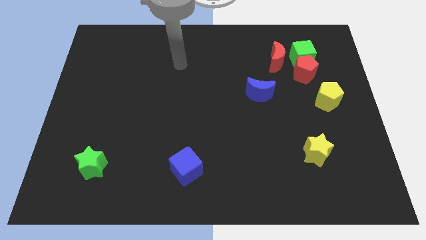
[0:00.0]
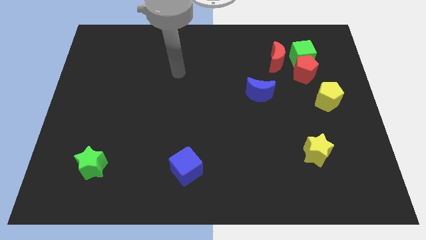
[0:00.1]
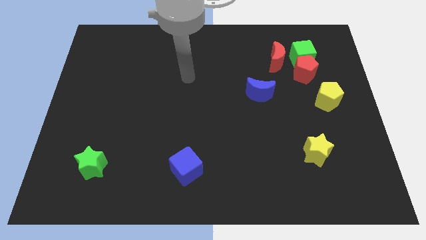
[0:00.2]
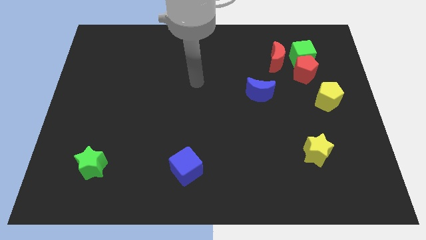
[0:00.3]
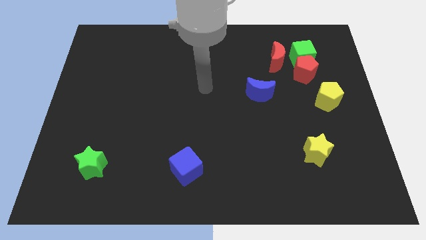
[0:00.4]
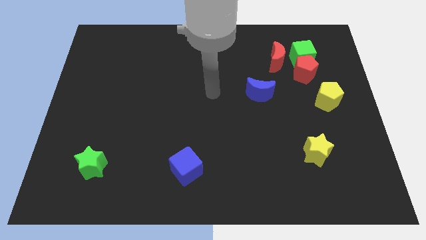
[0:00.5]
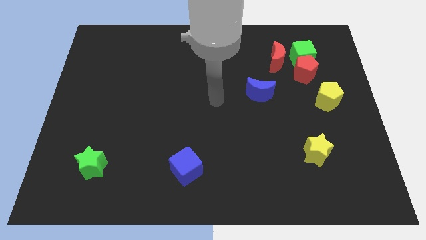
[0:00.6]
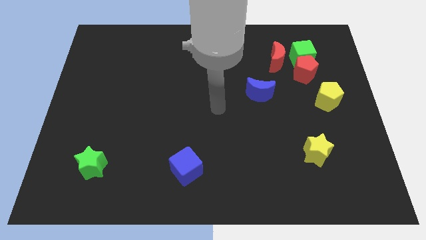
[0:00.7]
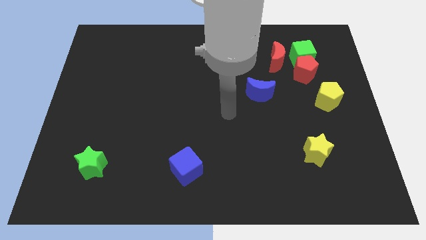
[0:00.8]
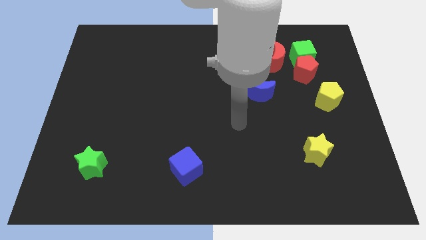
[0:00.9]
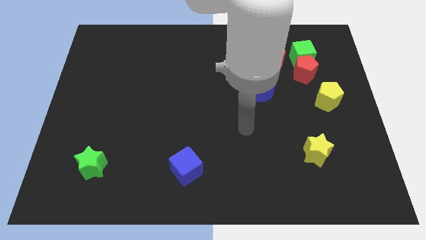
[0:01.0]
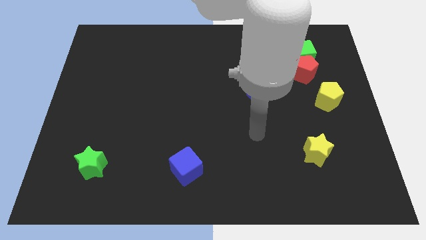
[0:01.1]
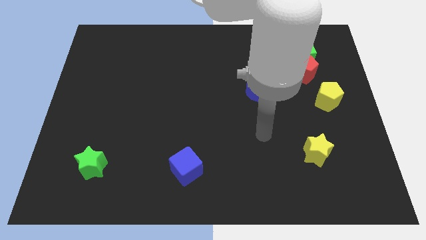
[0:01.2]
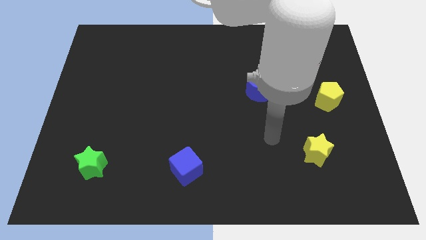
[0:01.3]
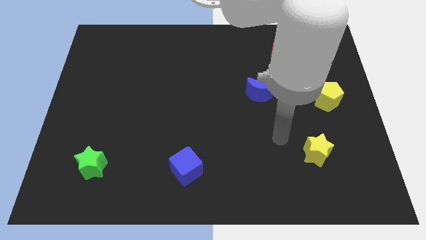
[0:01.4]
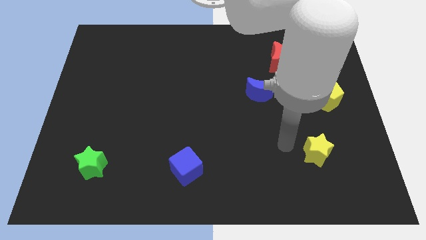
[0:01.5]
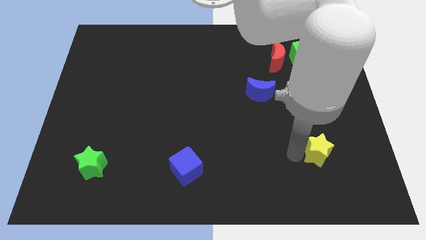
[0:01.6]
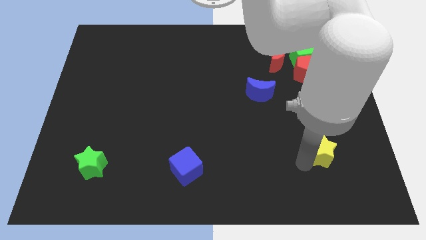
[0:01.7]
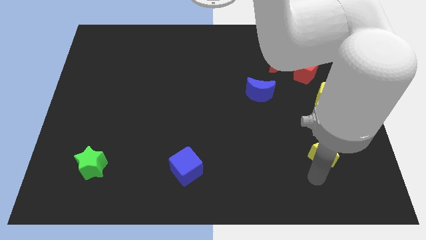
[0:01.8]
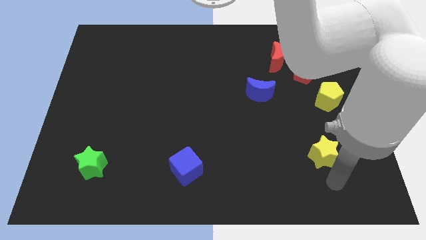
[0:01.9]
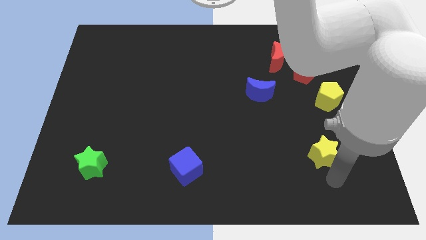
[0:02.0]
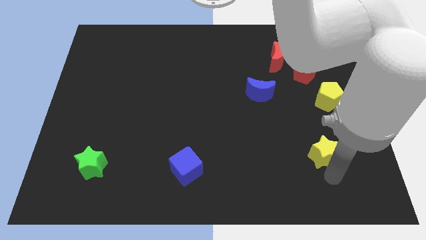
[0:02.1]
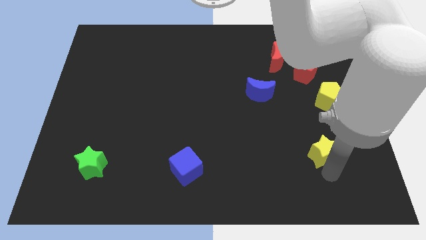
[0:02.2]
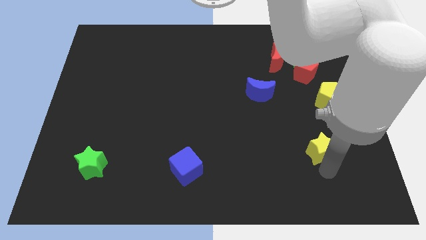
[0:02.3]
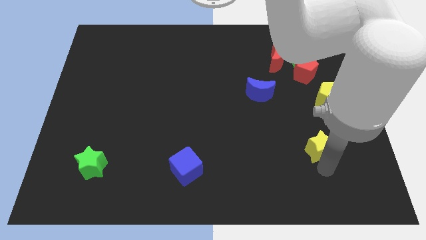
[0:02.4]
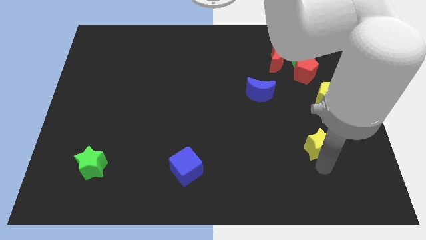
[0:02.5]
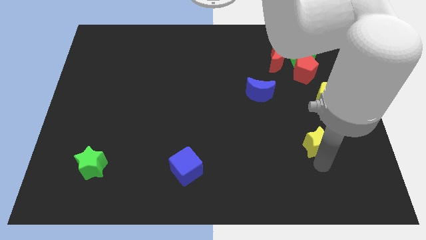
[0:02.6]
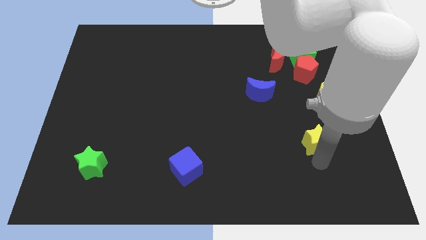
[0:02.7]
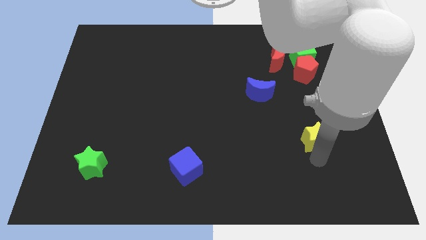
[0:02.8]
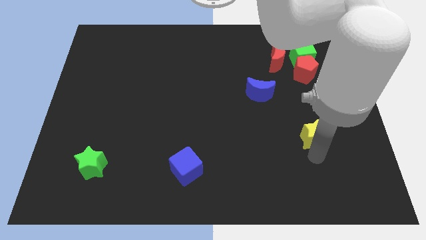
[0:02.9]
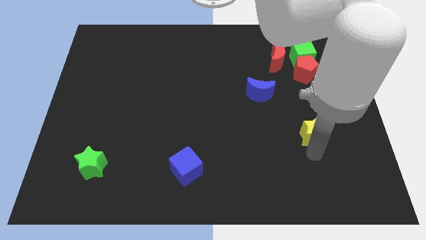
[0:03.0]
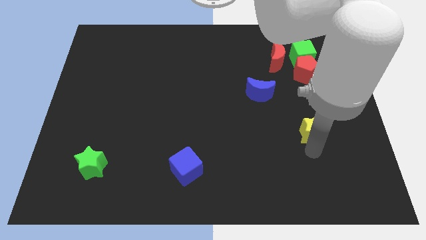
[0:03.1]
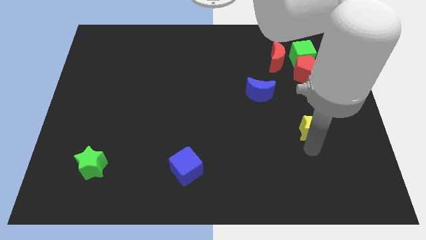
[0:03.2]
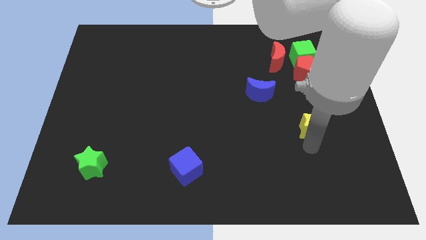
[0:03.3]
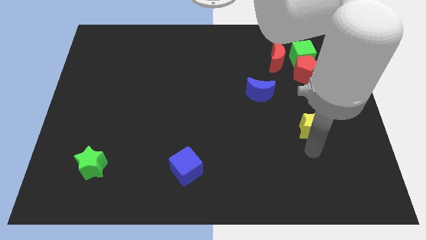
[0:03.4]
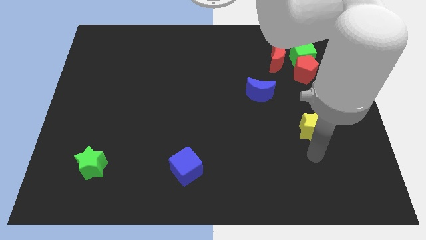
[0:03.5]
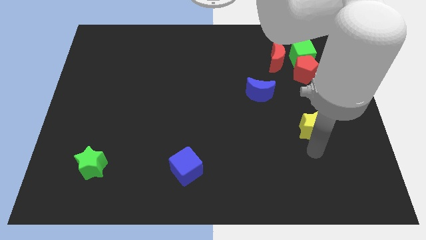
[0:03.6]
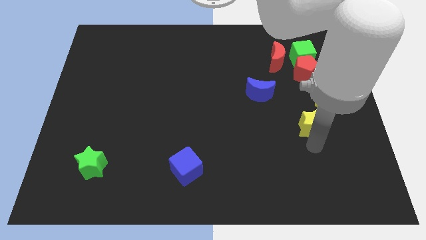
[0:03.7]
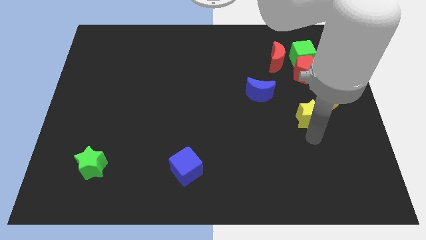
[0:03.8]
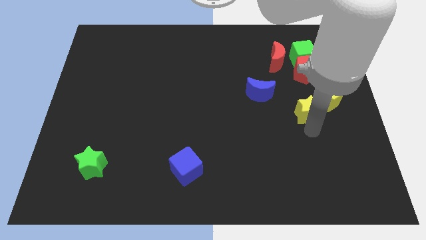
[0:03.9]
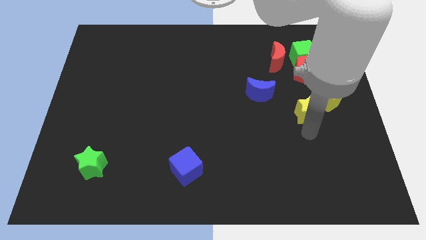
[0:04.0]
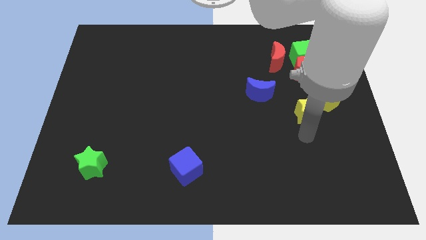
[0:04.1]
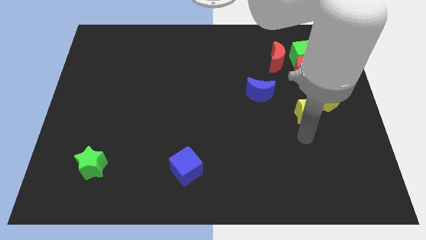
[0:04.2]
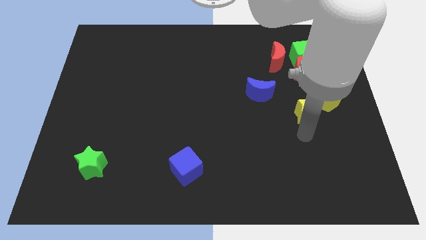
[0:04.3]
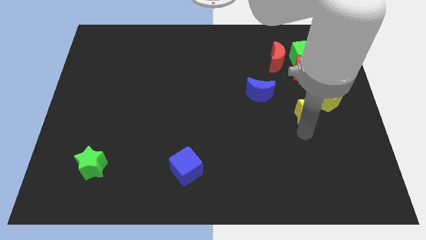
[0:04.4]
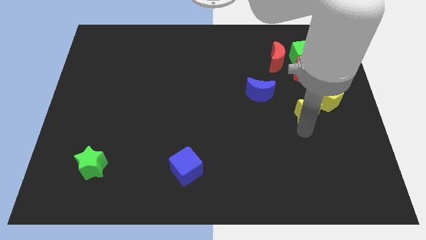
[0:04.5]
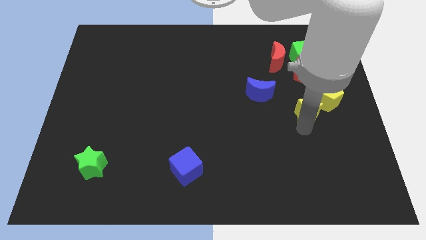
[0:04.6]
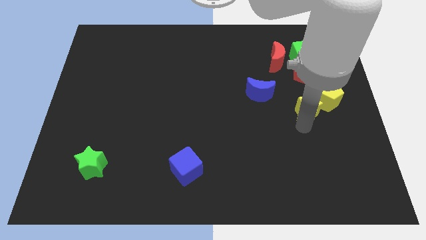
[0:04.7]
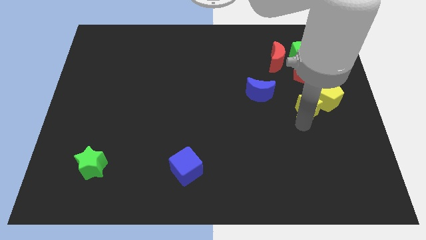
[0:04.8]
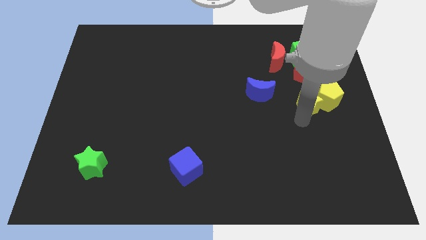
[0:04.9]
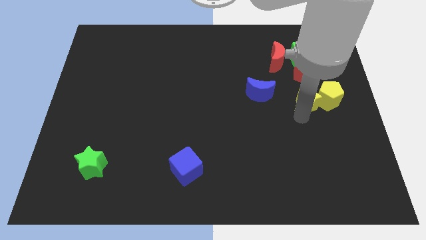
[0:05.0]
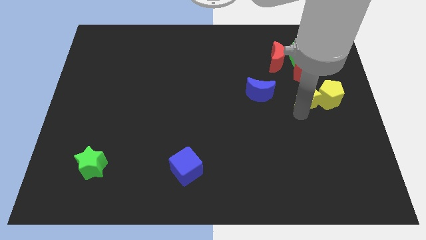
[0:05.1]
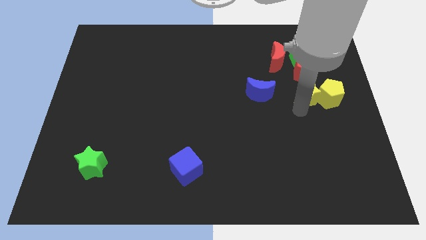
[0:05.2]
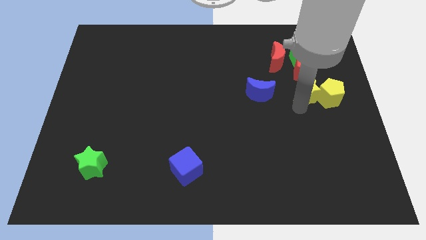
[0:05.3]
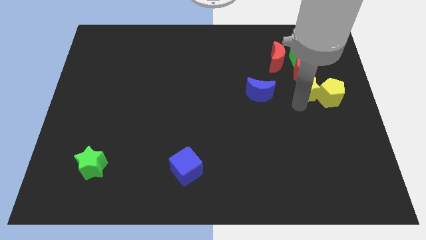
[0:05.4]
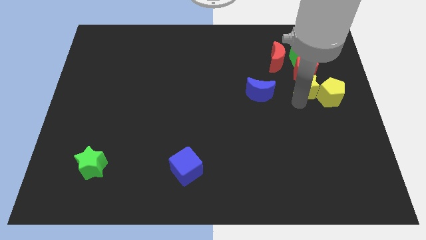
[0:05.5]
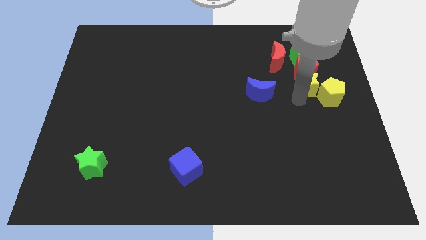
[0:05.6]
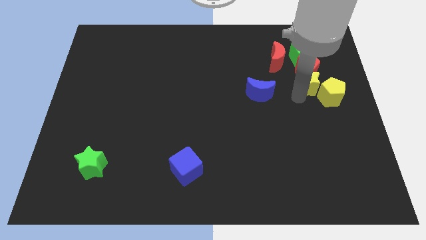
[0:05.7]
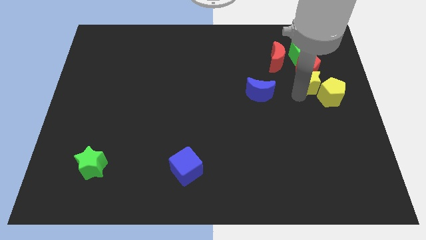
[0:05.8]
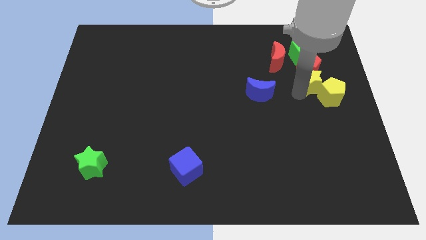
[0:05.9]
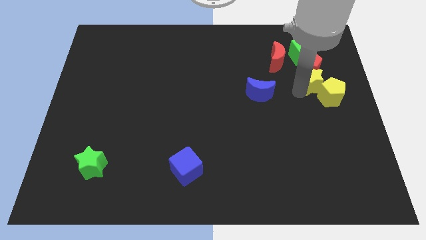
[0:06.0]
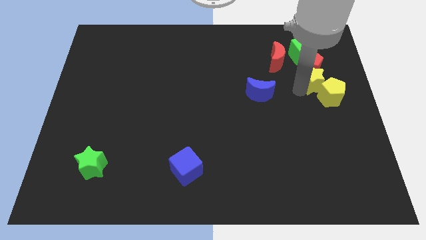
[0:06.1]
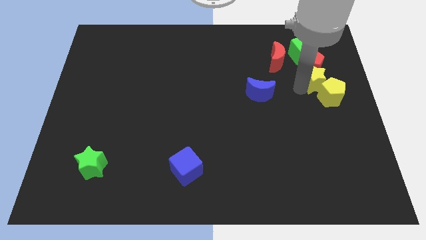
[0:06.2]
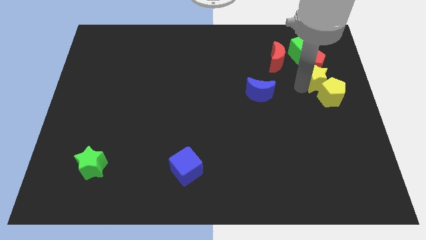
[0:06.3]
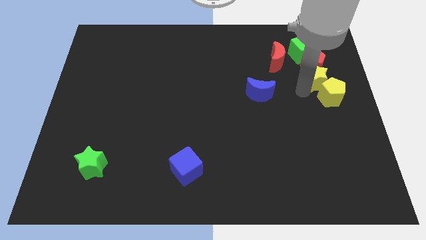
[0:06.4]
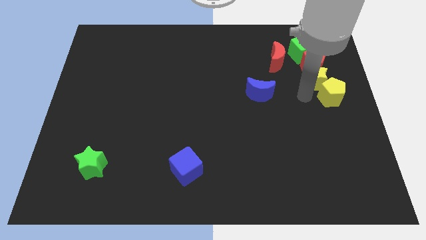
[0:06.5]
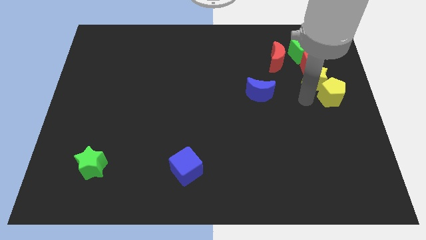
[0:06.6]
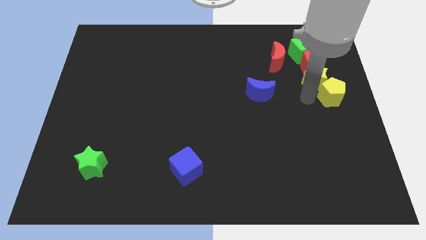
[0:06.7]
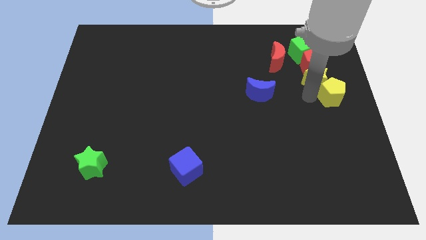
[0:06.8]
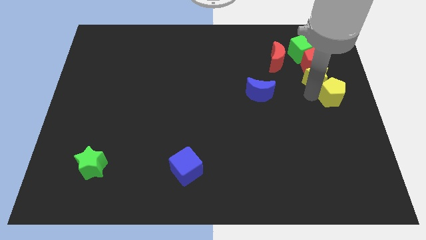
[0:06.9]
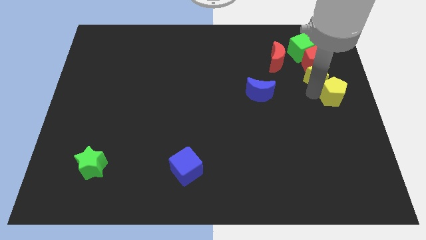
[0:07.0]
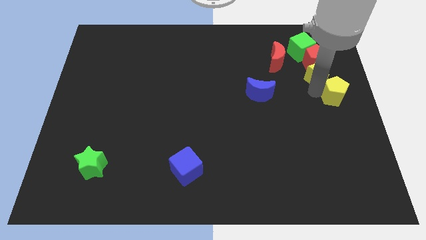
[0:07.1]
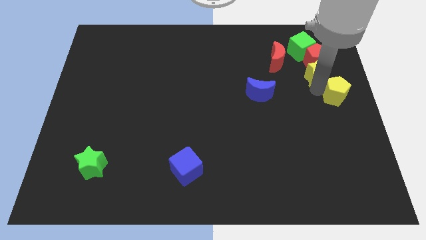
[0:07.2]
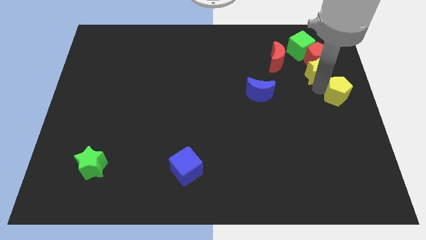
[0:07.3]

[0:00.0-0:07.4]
slide the yellow star diagonally down and to the right of the green cube
